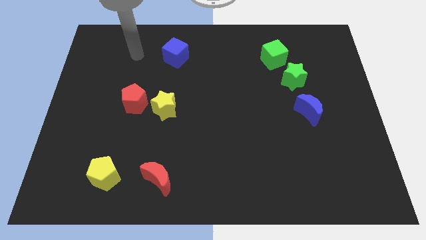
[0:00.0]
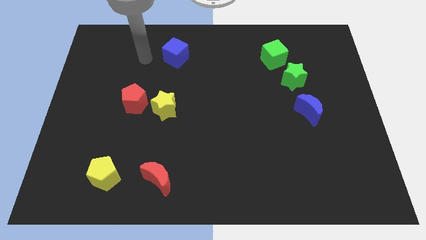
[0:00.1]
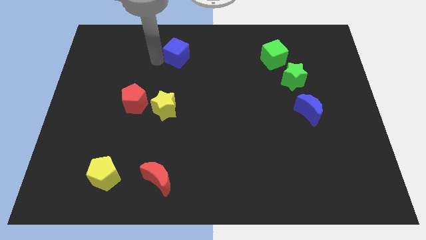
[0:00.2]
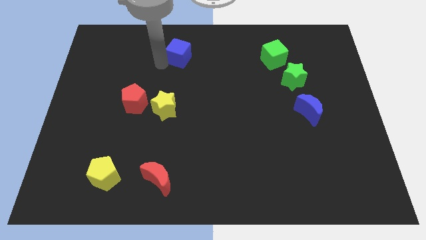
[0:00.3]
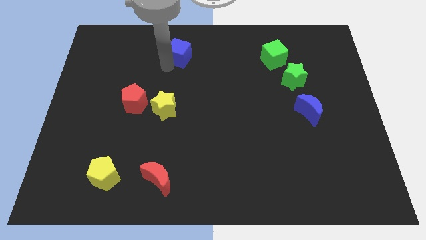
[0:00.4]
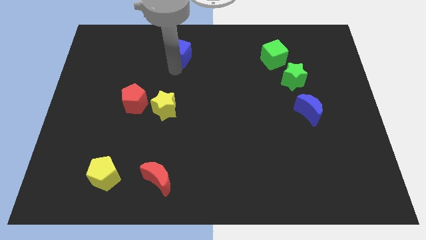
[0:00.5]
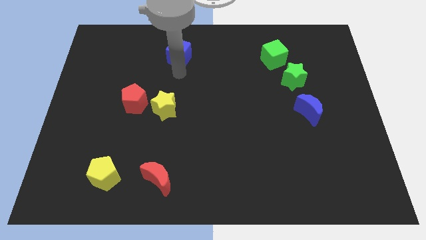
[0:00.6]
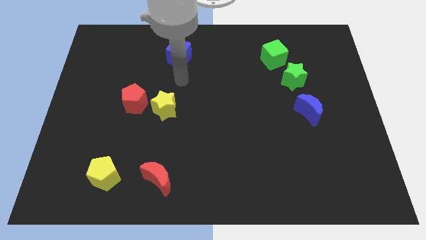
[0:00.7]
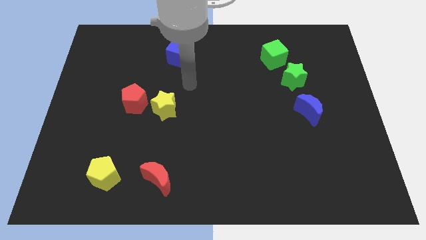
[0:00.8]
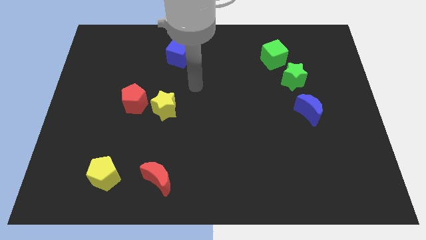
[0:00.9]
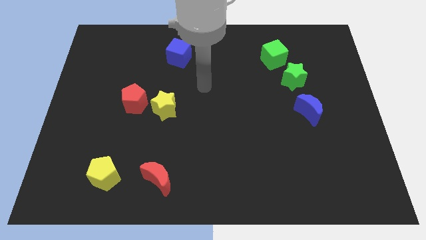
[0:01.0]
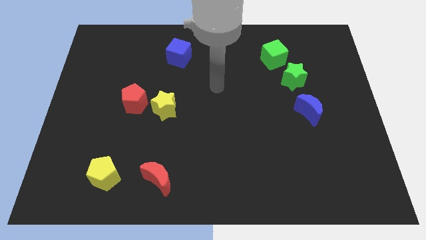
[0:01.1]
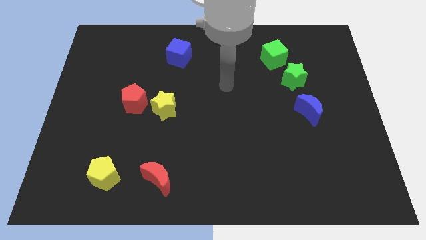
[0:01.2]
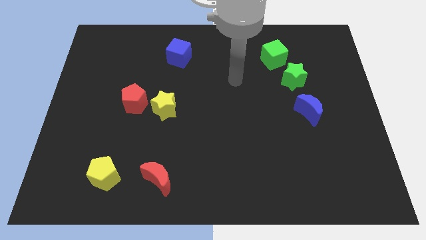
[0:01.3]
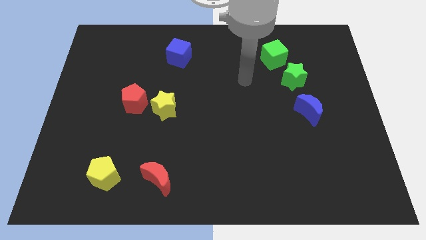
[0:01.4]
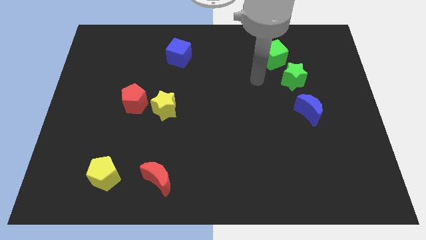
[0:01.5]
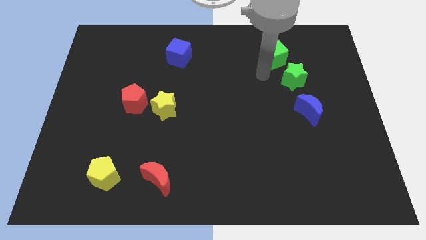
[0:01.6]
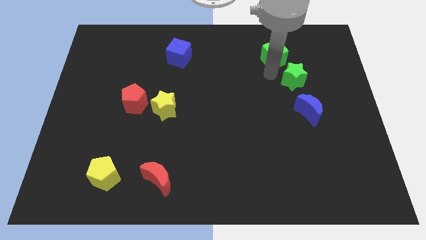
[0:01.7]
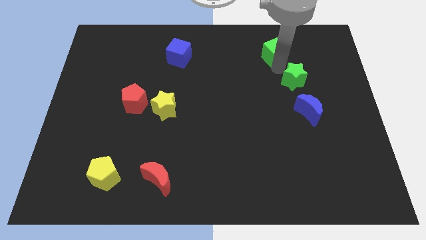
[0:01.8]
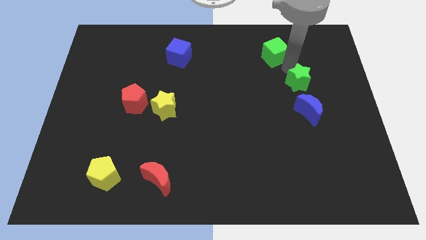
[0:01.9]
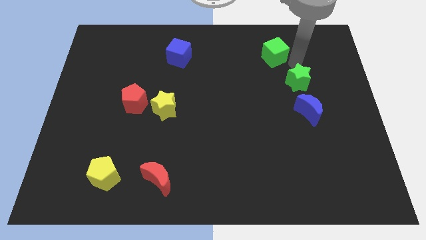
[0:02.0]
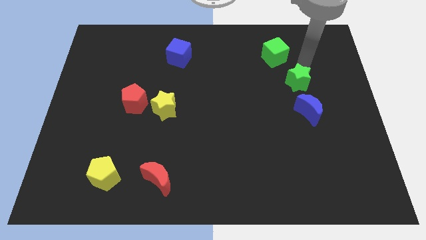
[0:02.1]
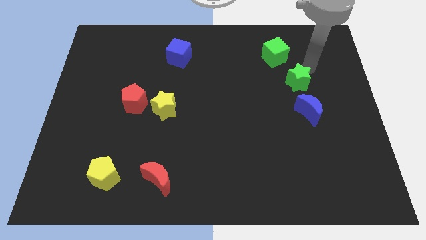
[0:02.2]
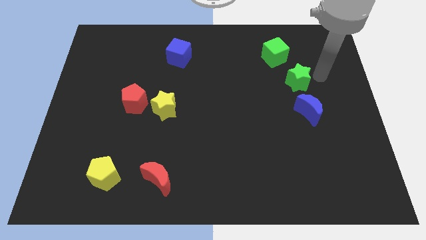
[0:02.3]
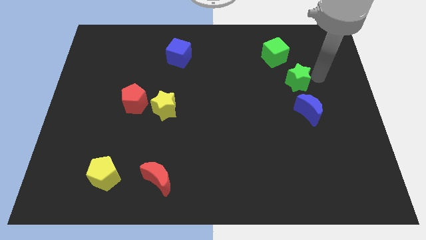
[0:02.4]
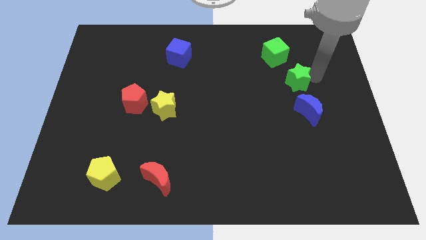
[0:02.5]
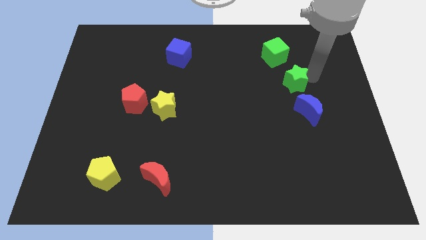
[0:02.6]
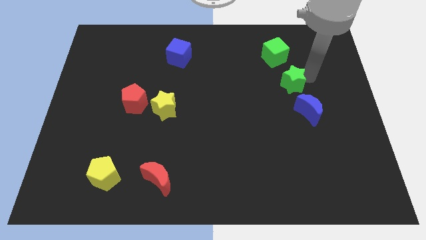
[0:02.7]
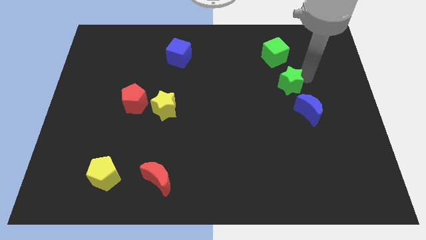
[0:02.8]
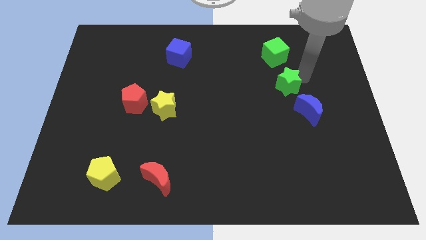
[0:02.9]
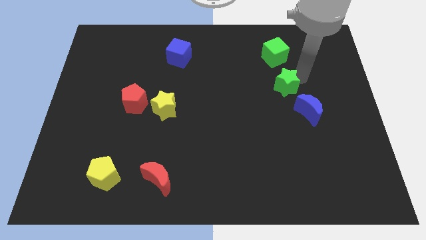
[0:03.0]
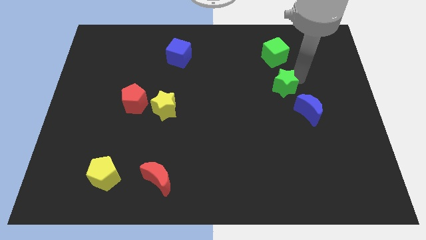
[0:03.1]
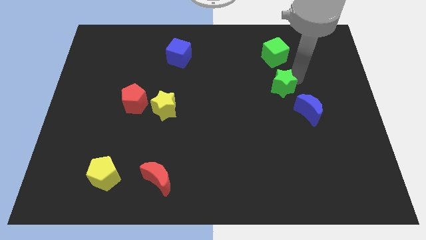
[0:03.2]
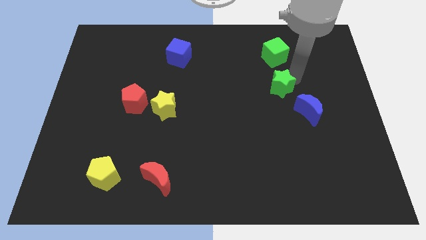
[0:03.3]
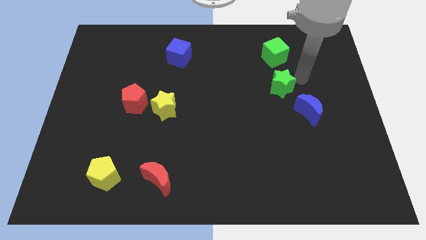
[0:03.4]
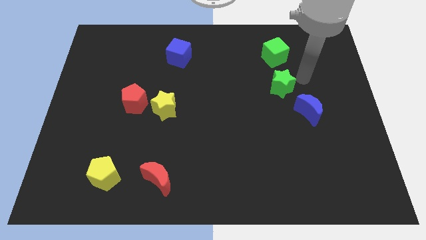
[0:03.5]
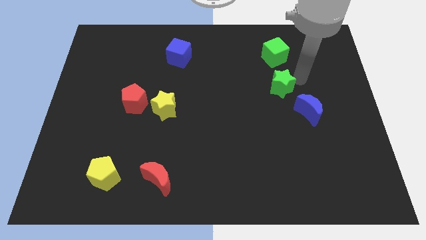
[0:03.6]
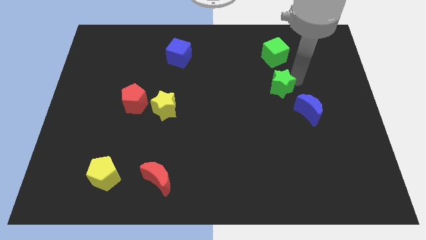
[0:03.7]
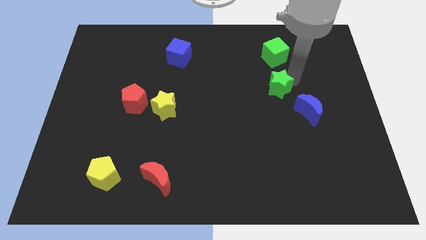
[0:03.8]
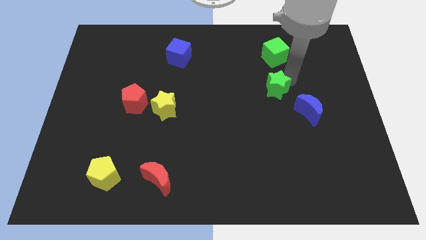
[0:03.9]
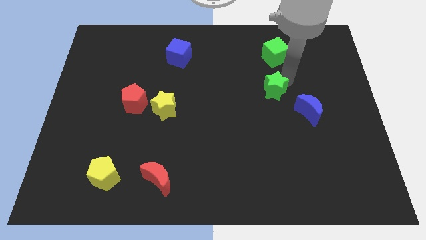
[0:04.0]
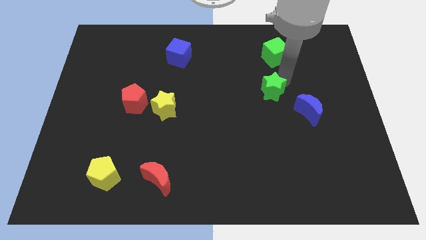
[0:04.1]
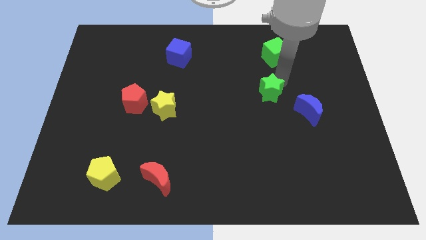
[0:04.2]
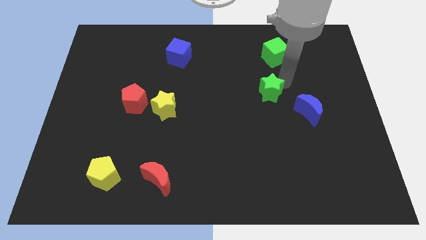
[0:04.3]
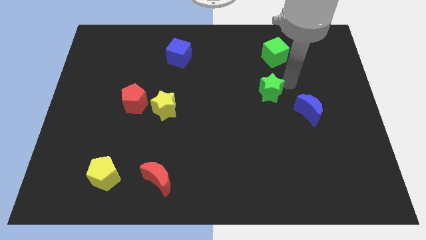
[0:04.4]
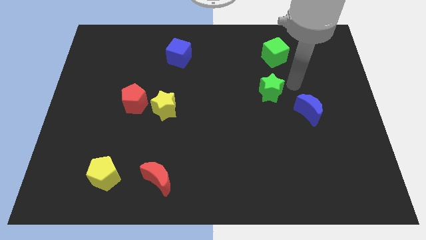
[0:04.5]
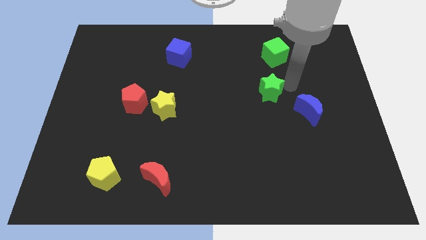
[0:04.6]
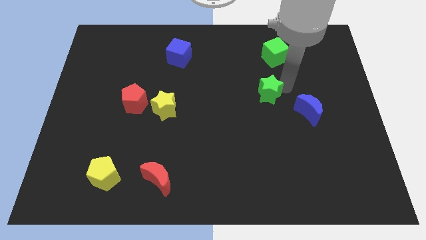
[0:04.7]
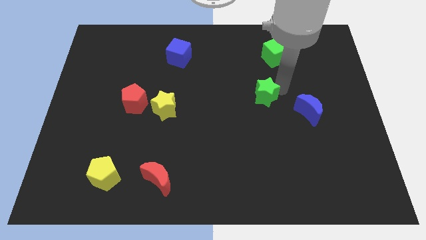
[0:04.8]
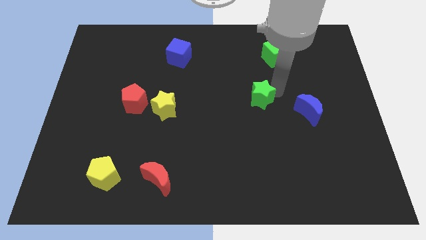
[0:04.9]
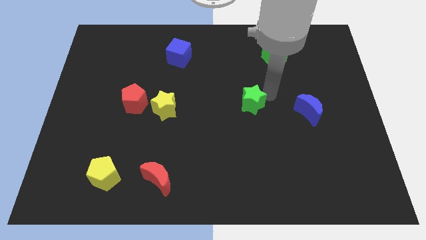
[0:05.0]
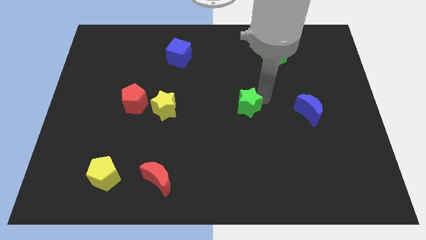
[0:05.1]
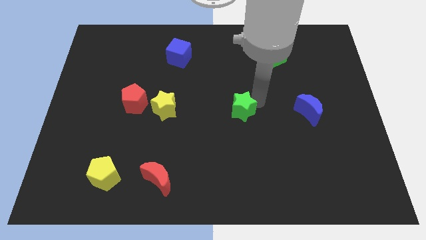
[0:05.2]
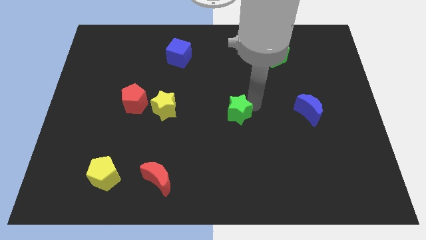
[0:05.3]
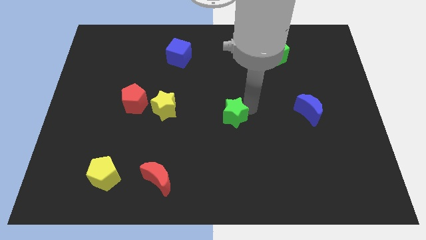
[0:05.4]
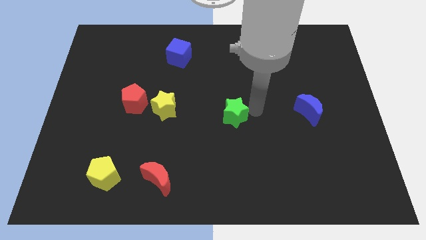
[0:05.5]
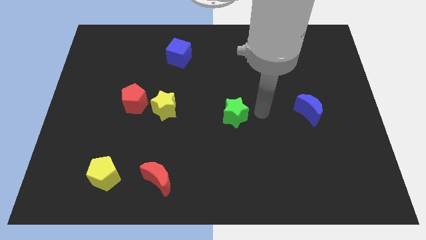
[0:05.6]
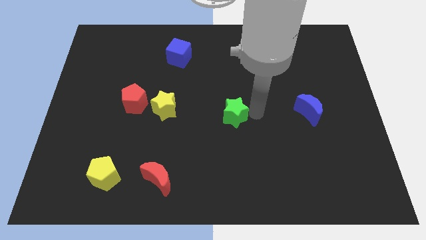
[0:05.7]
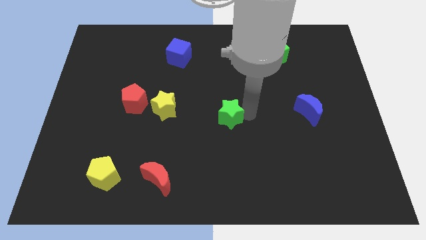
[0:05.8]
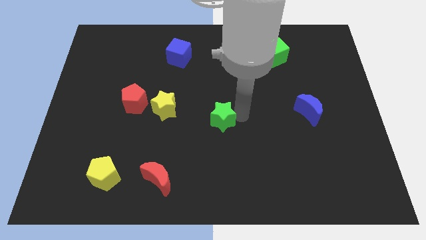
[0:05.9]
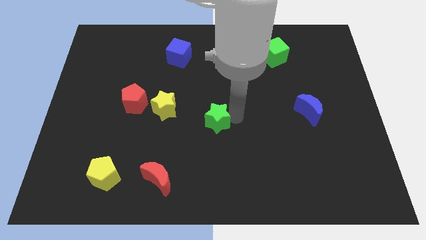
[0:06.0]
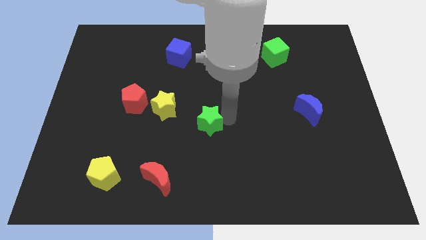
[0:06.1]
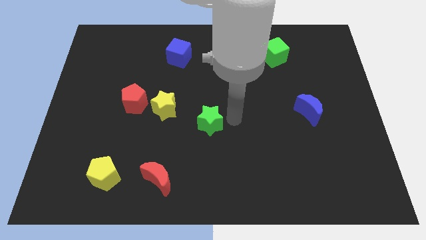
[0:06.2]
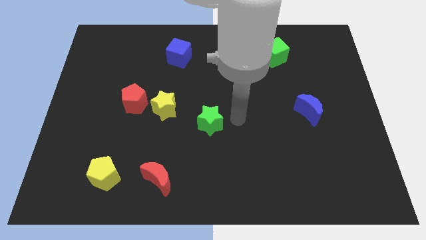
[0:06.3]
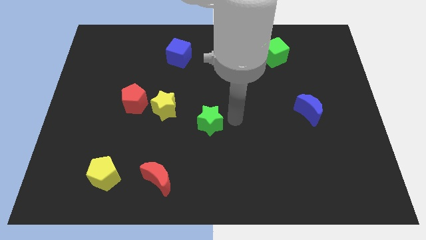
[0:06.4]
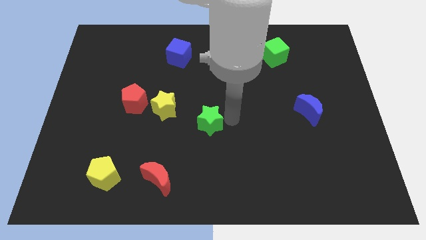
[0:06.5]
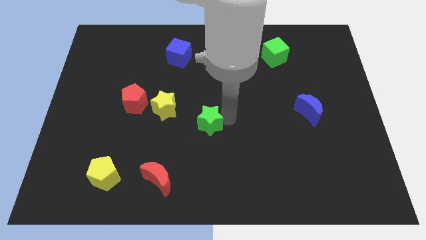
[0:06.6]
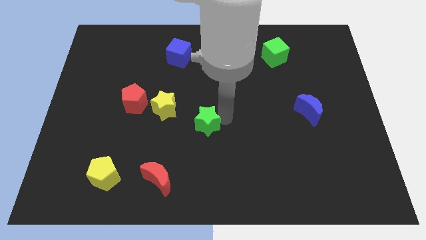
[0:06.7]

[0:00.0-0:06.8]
push the green star to the bottom right of the yellow star

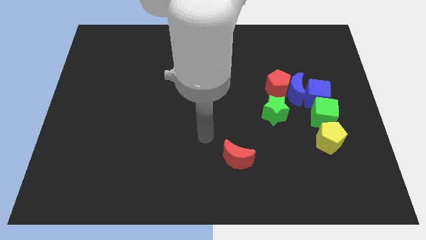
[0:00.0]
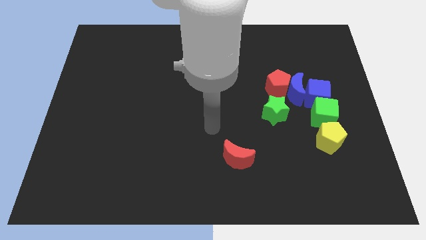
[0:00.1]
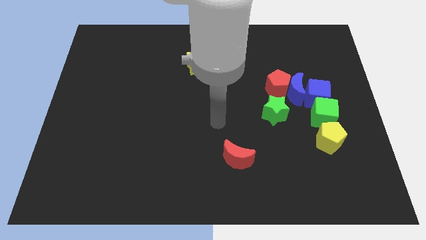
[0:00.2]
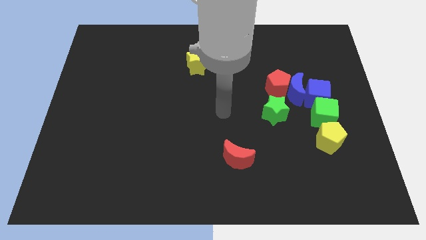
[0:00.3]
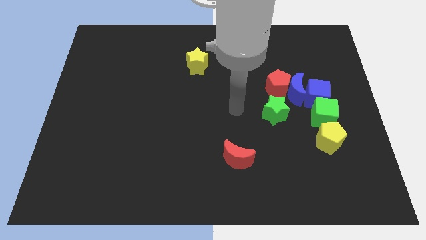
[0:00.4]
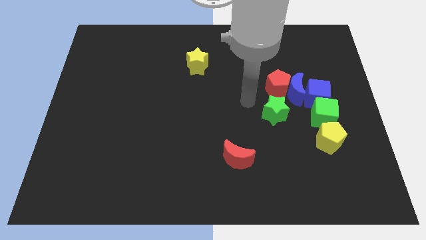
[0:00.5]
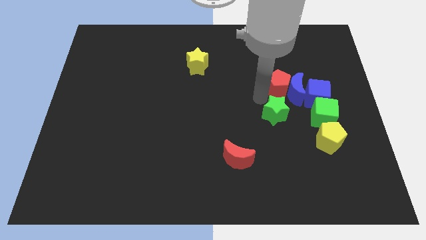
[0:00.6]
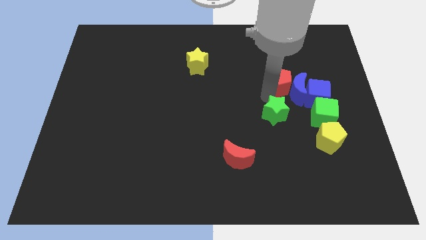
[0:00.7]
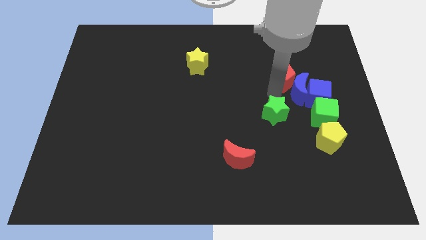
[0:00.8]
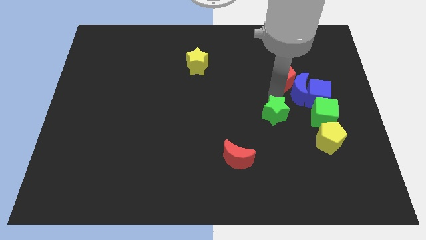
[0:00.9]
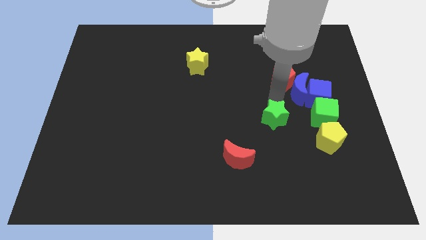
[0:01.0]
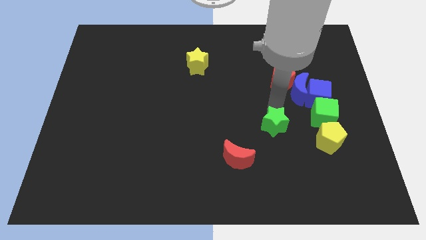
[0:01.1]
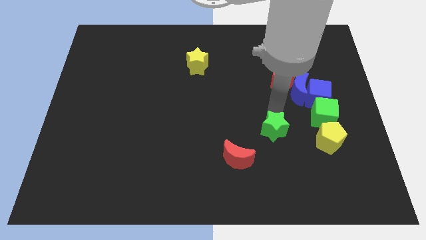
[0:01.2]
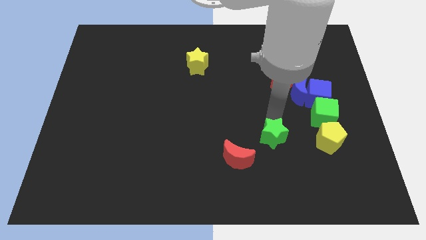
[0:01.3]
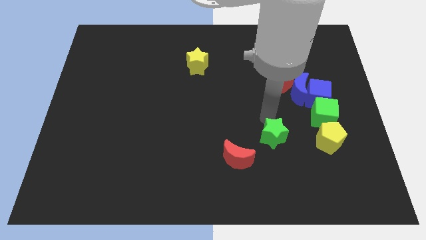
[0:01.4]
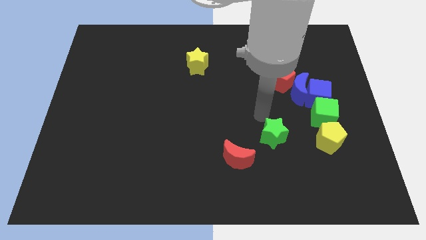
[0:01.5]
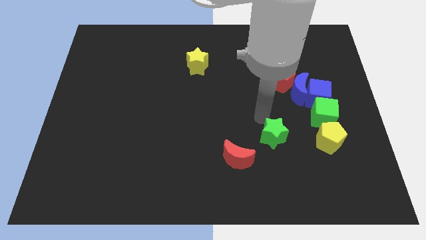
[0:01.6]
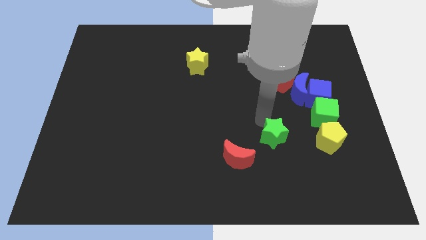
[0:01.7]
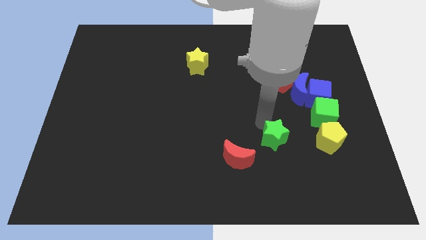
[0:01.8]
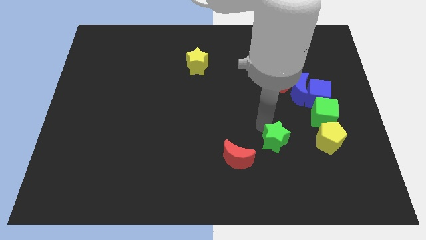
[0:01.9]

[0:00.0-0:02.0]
slide the green star just right of the red moon
